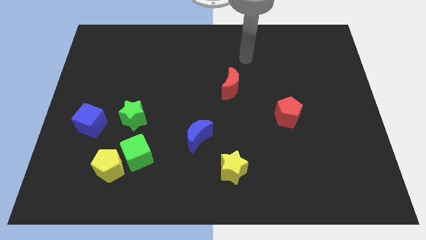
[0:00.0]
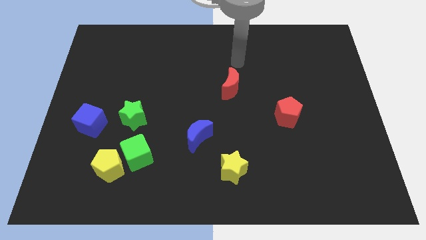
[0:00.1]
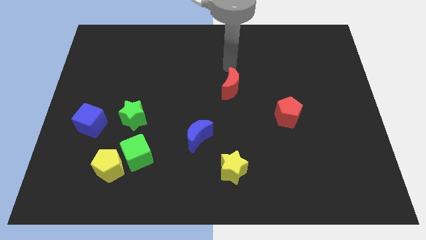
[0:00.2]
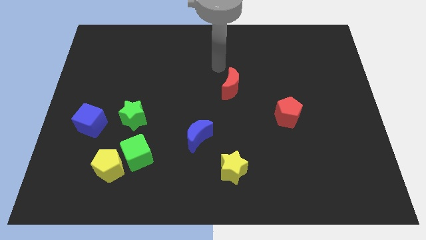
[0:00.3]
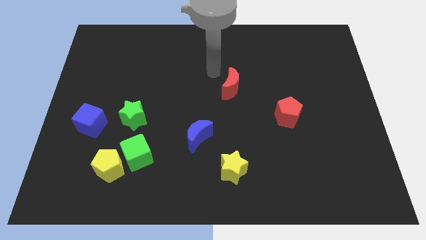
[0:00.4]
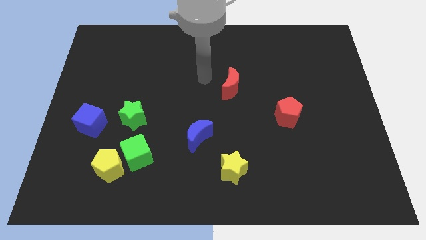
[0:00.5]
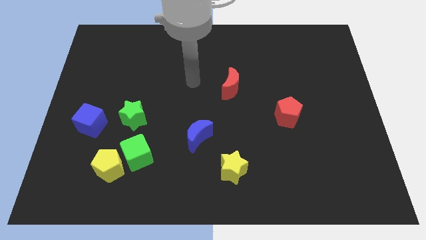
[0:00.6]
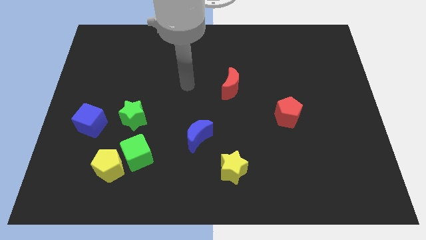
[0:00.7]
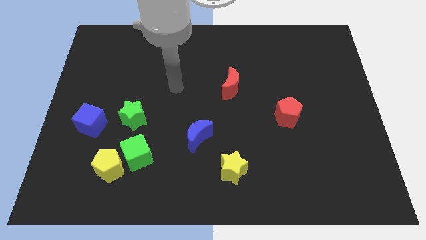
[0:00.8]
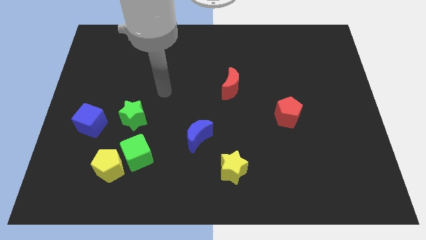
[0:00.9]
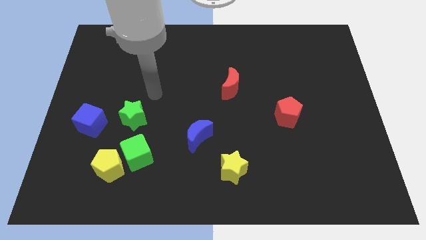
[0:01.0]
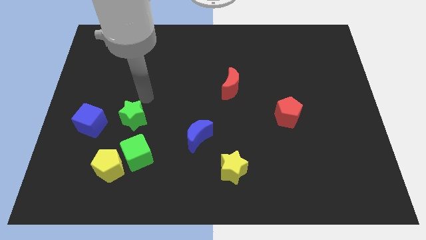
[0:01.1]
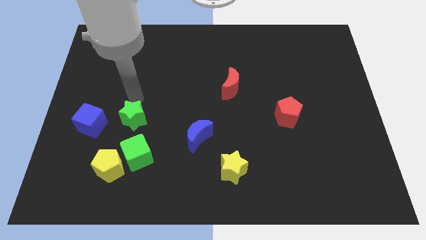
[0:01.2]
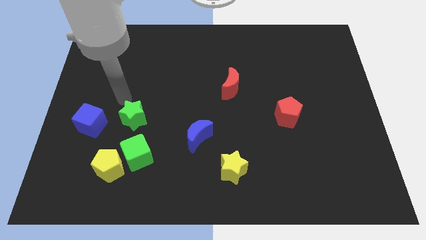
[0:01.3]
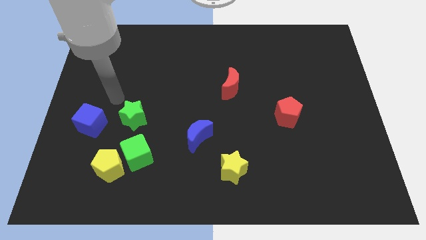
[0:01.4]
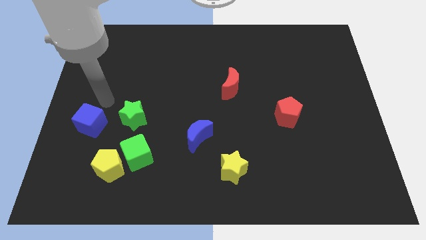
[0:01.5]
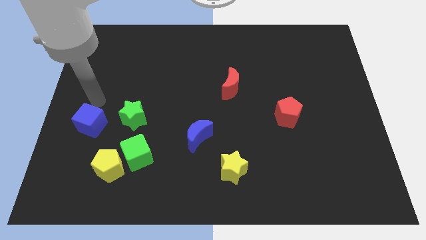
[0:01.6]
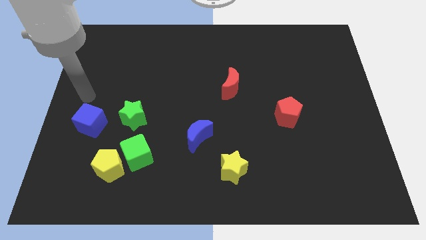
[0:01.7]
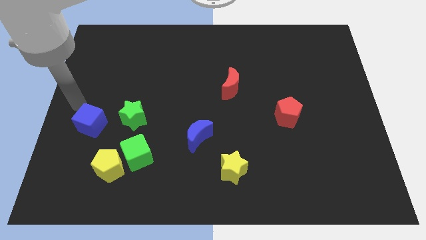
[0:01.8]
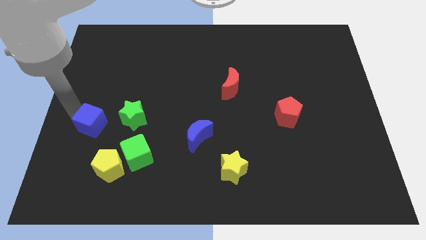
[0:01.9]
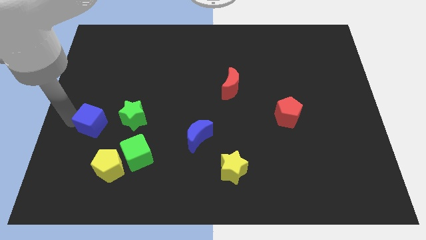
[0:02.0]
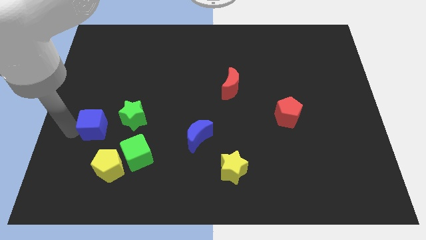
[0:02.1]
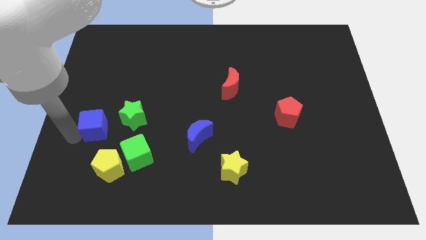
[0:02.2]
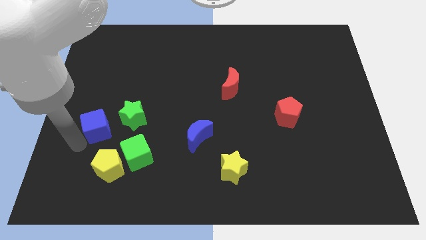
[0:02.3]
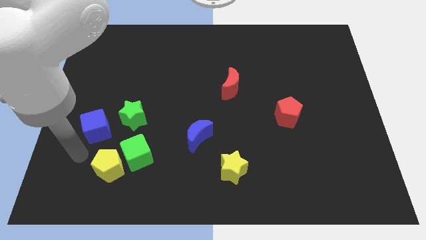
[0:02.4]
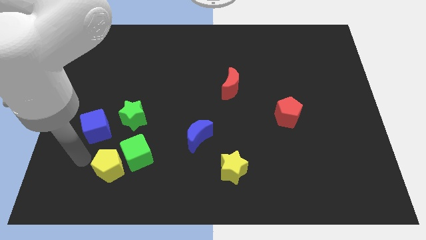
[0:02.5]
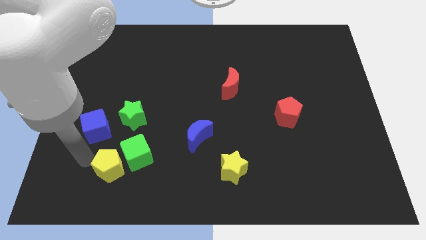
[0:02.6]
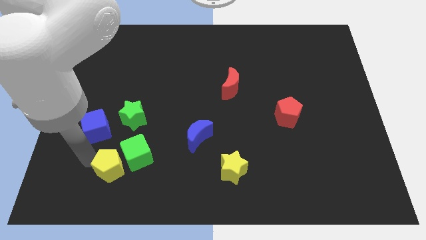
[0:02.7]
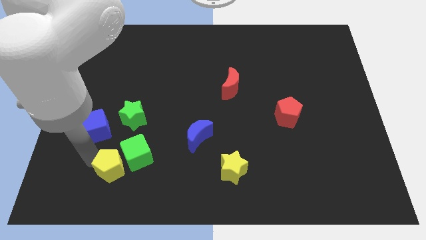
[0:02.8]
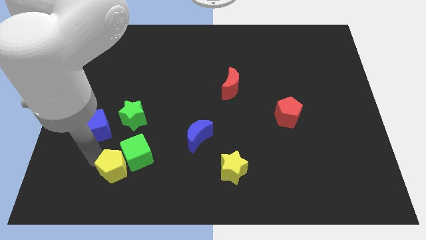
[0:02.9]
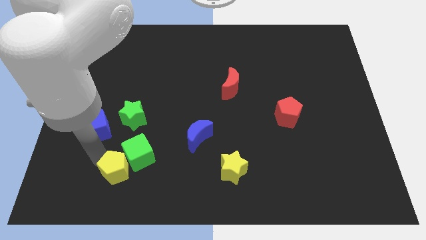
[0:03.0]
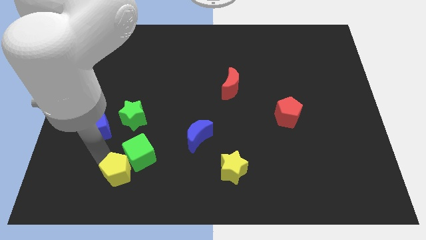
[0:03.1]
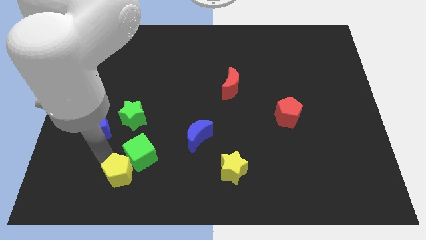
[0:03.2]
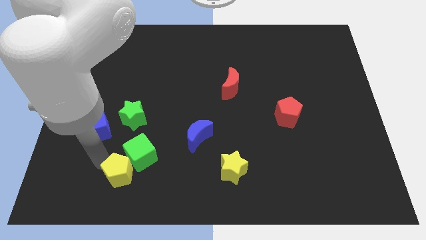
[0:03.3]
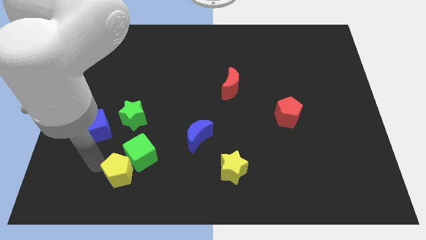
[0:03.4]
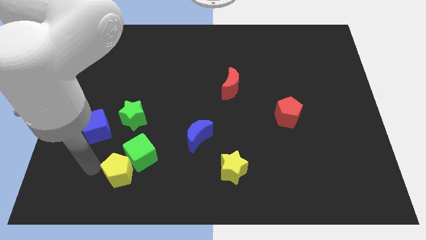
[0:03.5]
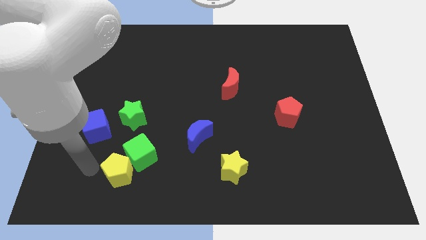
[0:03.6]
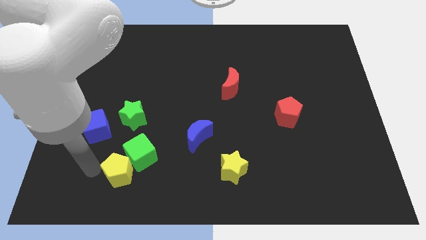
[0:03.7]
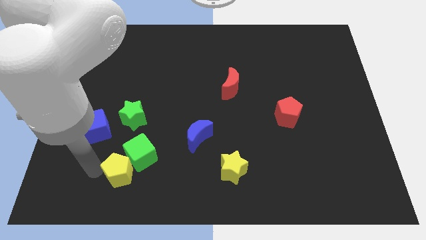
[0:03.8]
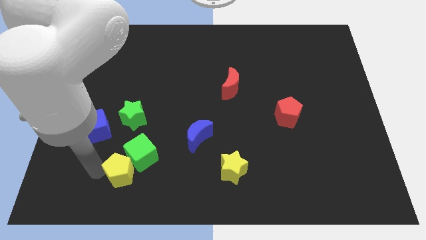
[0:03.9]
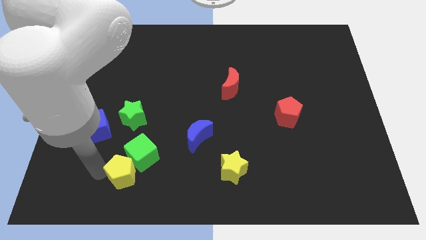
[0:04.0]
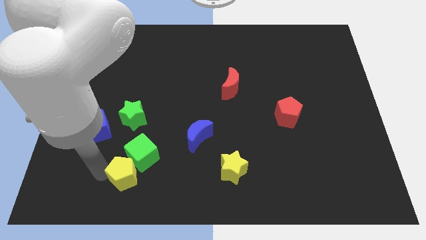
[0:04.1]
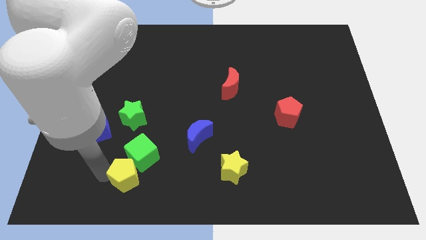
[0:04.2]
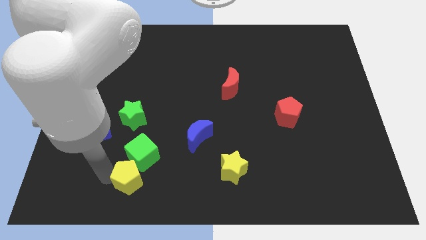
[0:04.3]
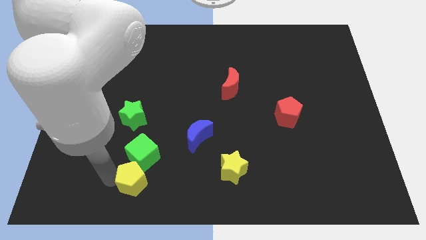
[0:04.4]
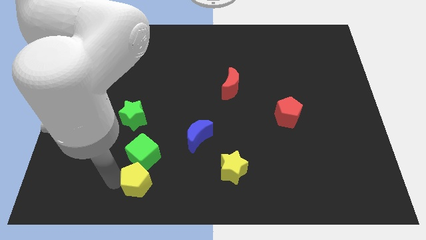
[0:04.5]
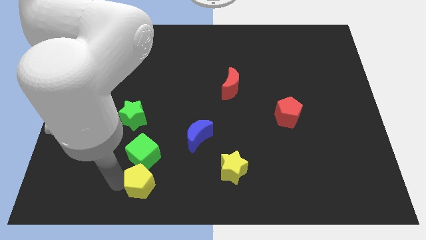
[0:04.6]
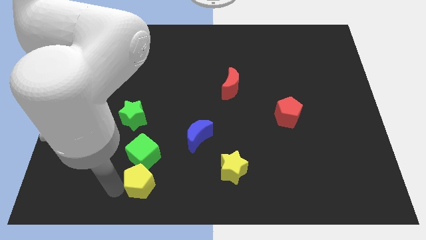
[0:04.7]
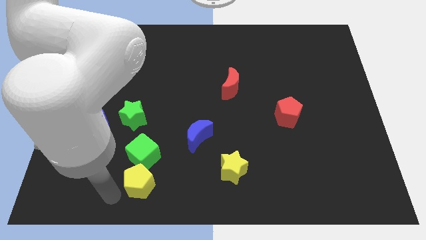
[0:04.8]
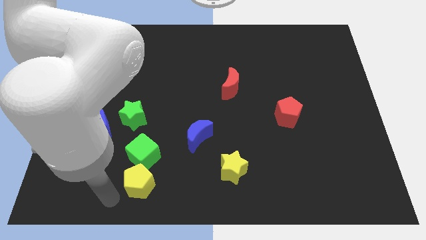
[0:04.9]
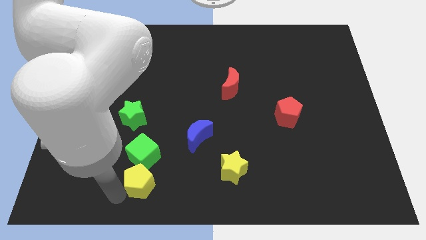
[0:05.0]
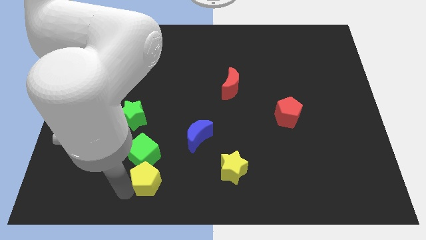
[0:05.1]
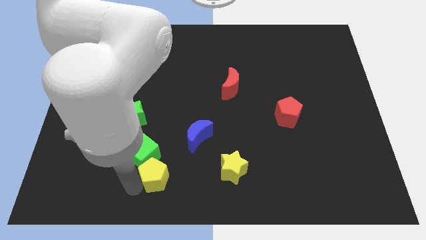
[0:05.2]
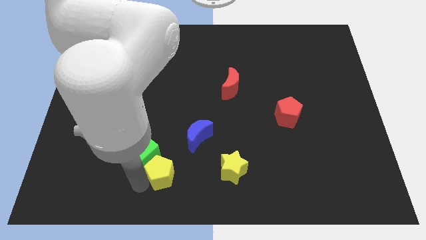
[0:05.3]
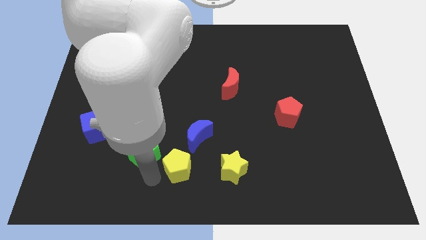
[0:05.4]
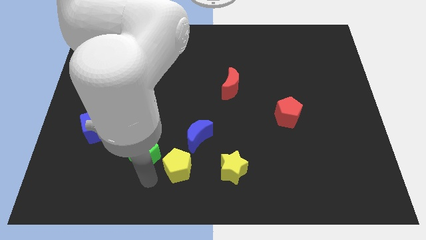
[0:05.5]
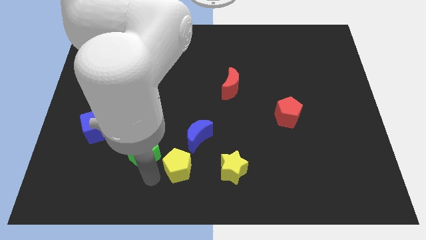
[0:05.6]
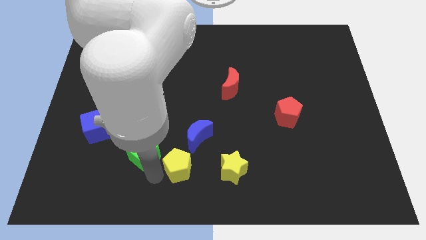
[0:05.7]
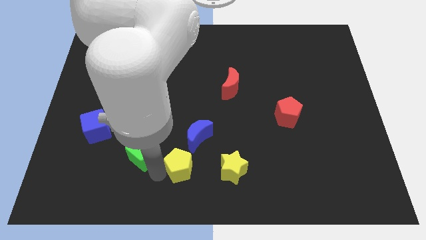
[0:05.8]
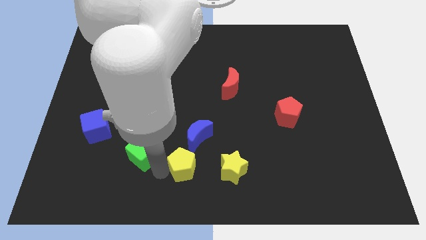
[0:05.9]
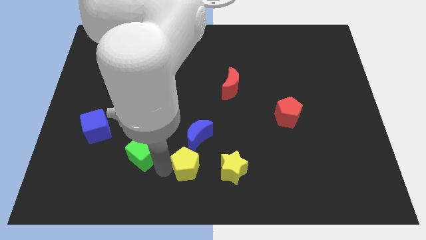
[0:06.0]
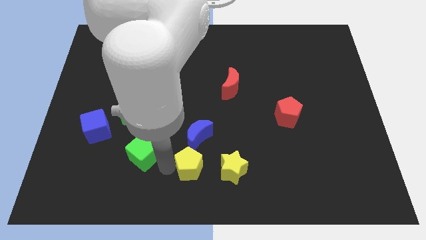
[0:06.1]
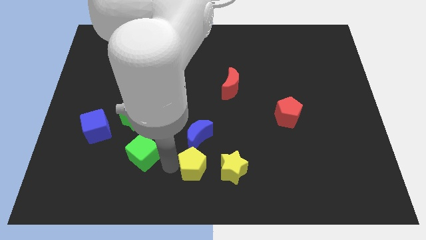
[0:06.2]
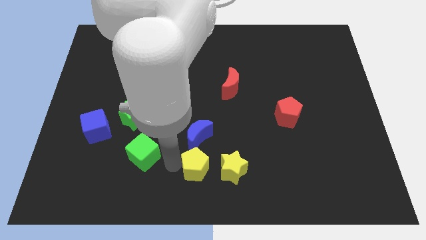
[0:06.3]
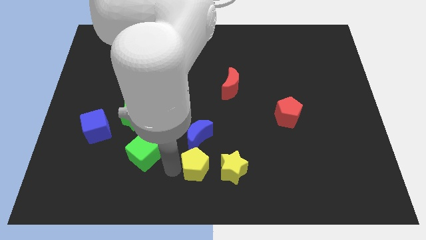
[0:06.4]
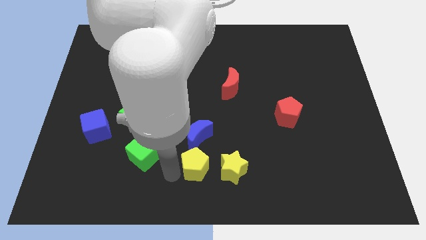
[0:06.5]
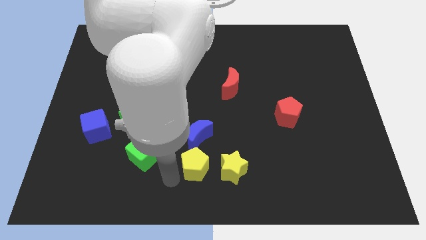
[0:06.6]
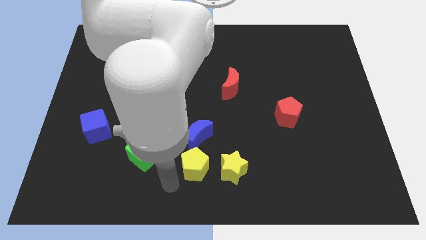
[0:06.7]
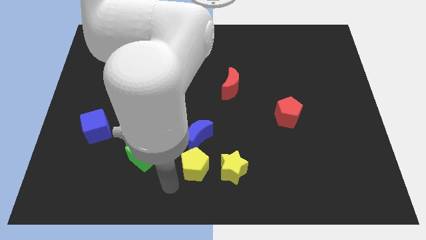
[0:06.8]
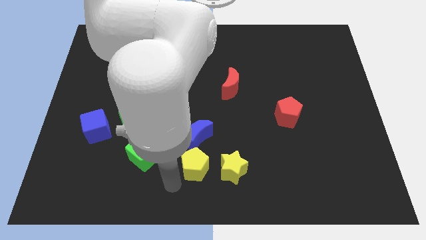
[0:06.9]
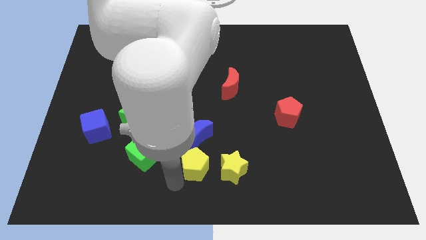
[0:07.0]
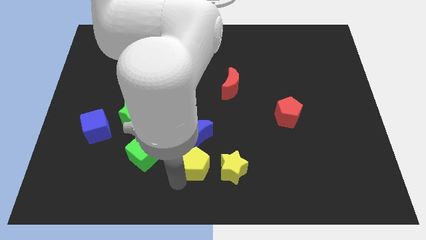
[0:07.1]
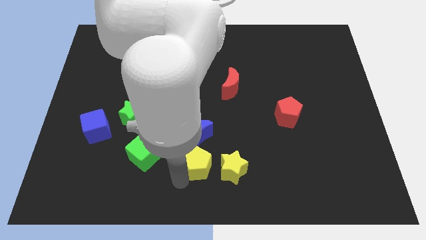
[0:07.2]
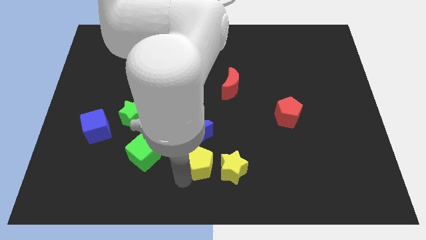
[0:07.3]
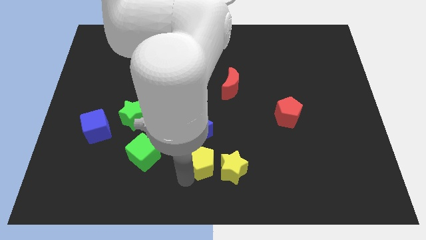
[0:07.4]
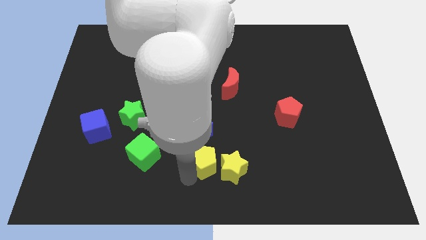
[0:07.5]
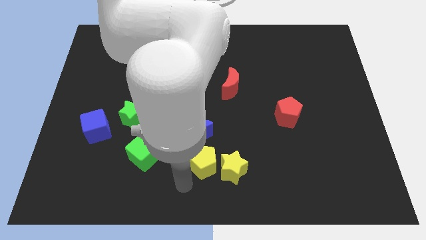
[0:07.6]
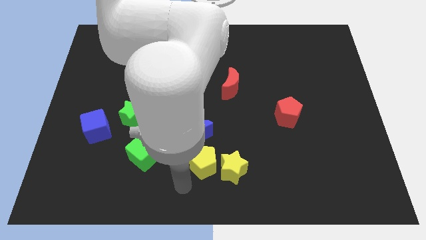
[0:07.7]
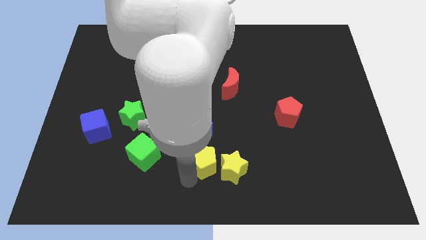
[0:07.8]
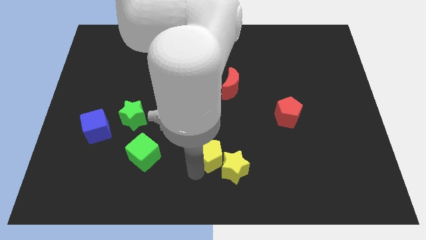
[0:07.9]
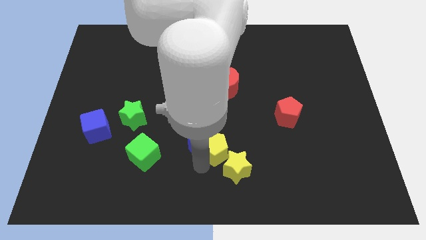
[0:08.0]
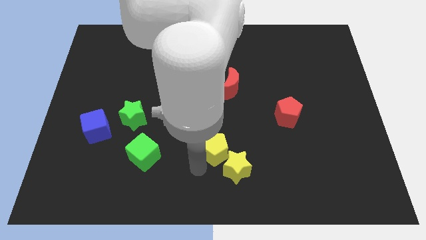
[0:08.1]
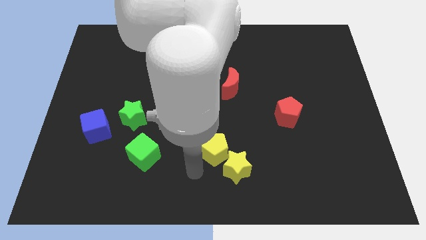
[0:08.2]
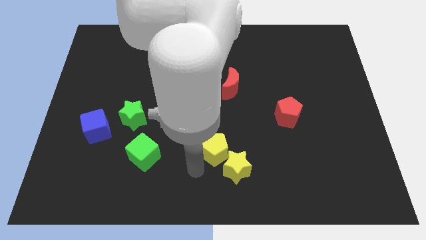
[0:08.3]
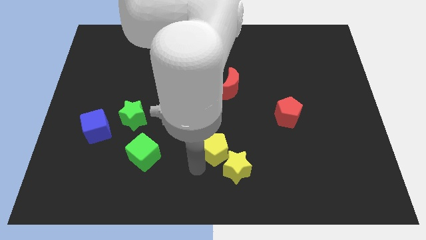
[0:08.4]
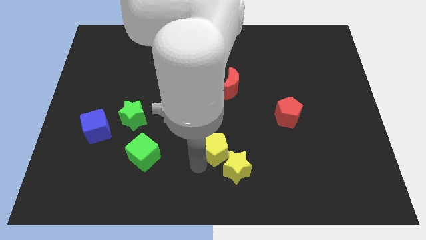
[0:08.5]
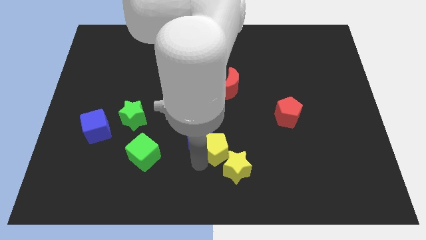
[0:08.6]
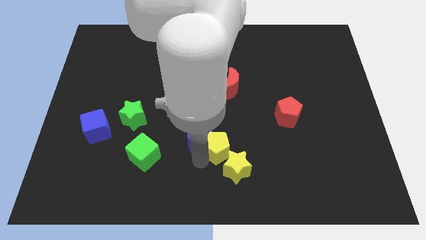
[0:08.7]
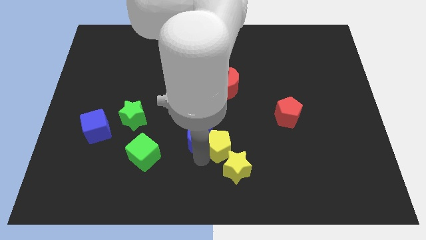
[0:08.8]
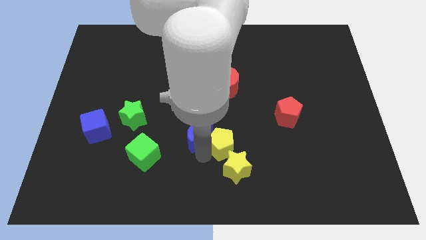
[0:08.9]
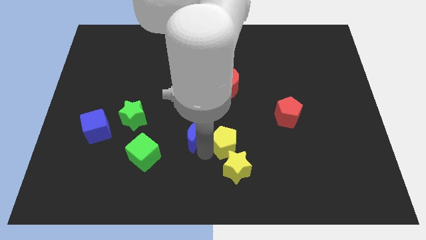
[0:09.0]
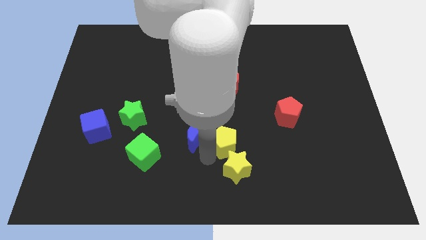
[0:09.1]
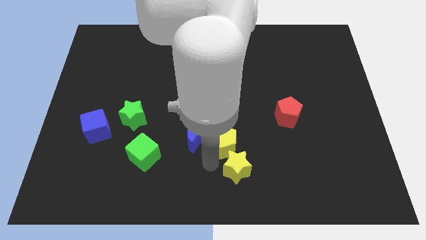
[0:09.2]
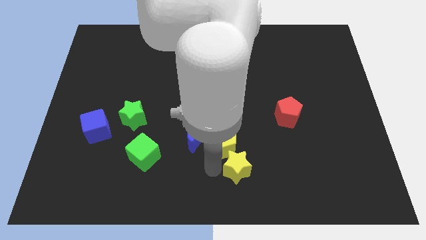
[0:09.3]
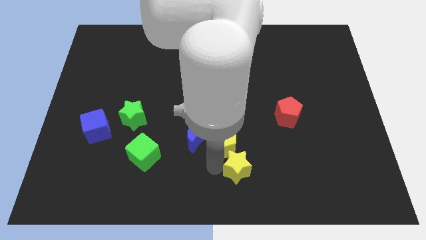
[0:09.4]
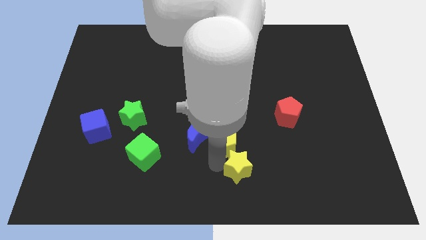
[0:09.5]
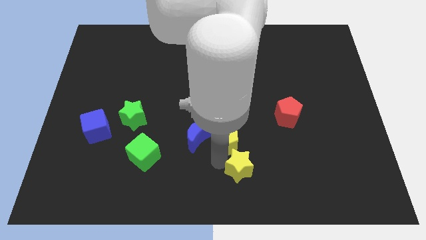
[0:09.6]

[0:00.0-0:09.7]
push the yellow pentagon below the red moon
